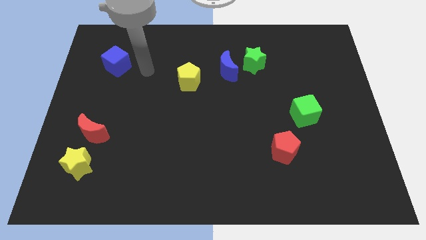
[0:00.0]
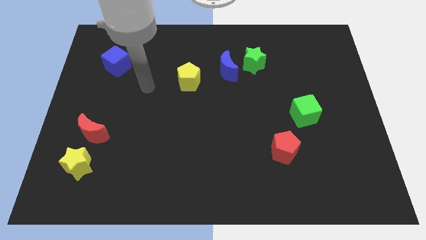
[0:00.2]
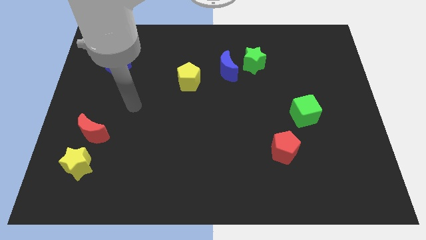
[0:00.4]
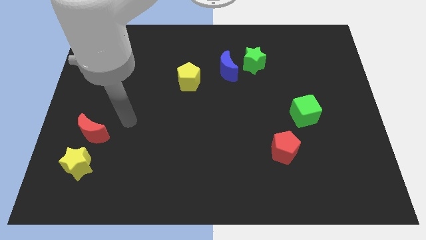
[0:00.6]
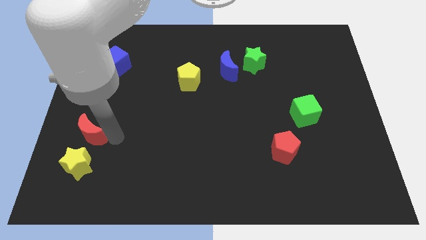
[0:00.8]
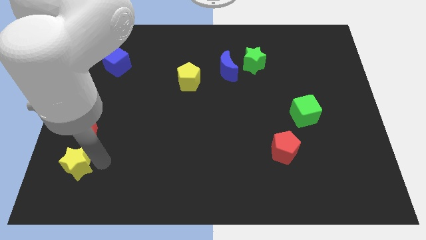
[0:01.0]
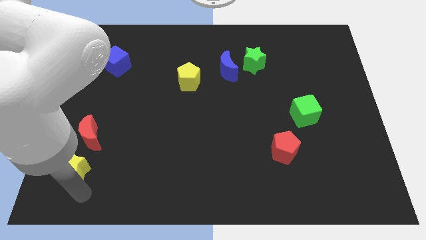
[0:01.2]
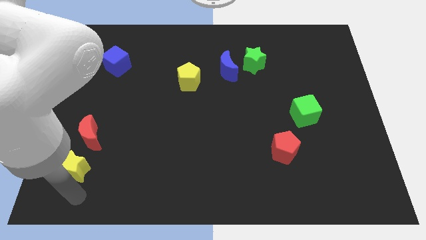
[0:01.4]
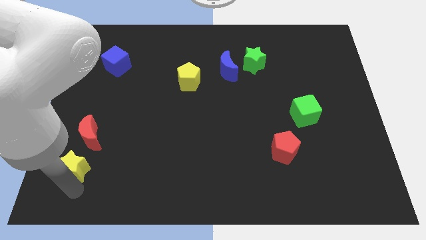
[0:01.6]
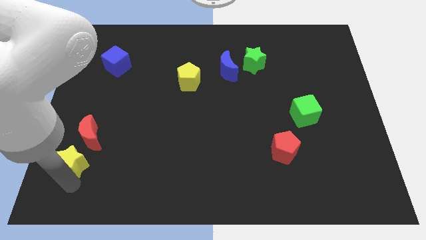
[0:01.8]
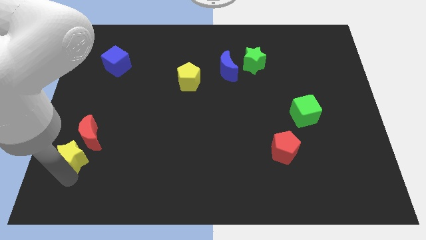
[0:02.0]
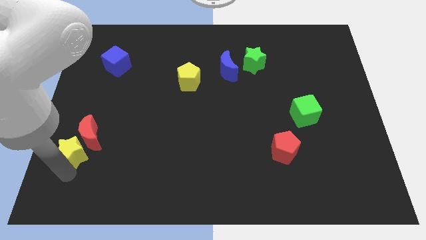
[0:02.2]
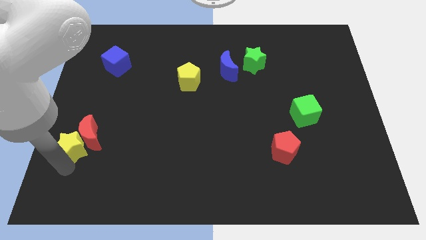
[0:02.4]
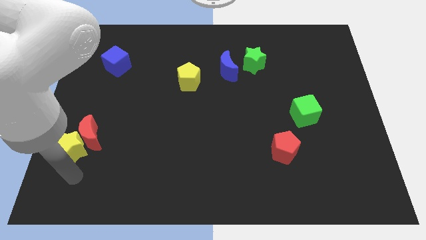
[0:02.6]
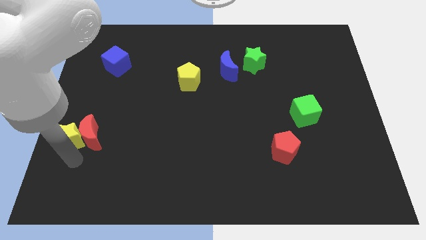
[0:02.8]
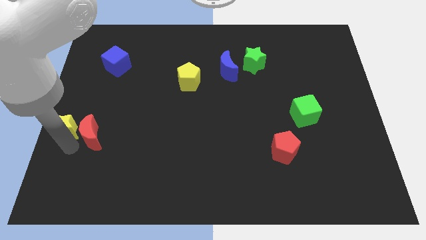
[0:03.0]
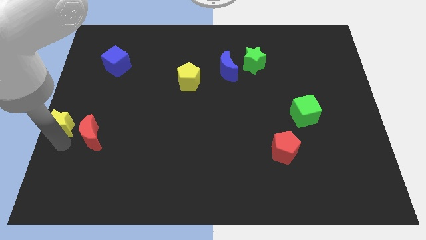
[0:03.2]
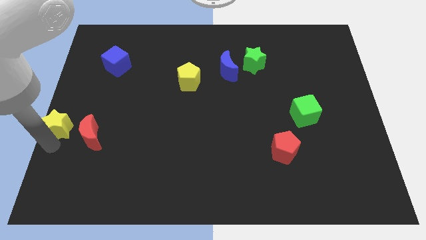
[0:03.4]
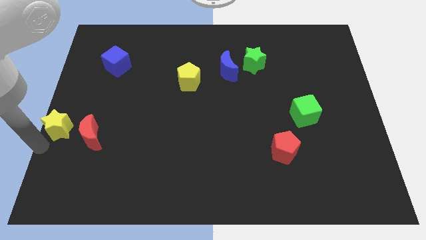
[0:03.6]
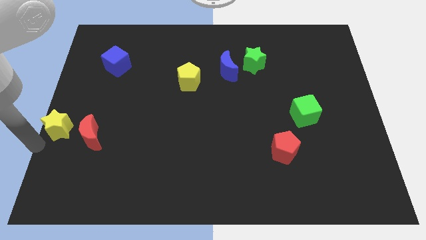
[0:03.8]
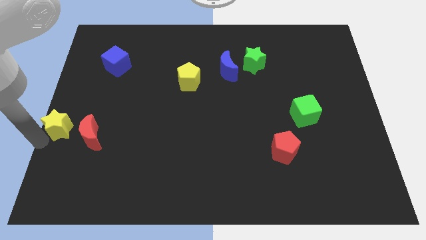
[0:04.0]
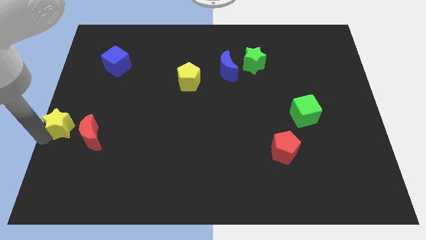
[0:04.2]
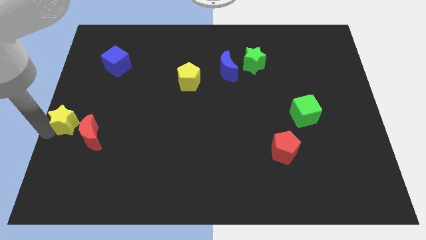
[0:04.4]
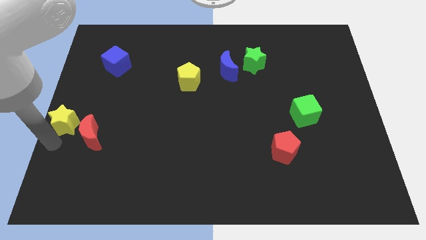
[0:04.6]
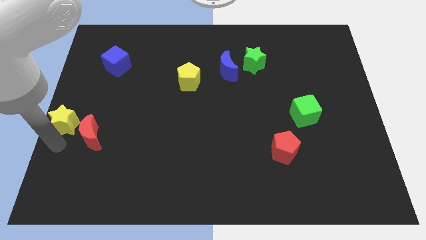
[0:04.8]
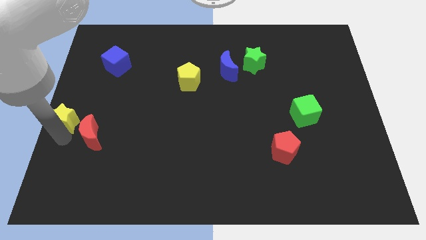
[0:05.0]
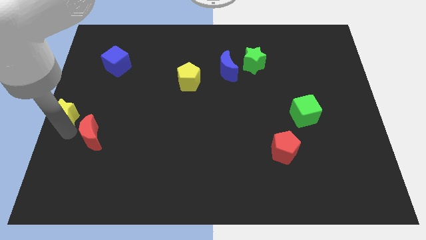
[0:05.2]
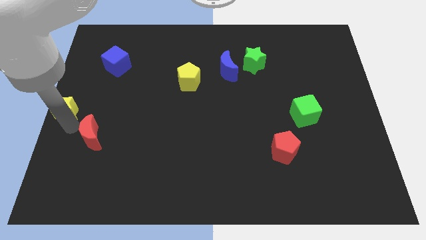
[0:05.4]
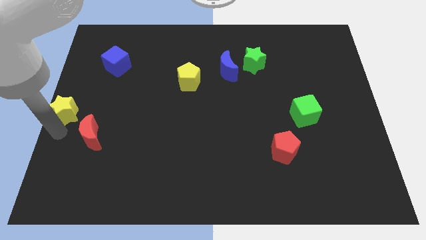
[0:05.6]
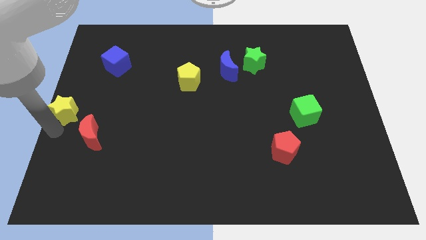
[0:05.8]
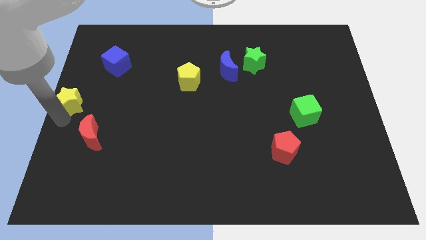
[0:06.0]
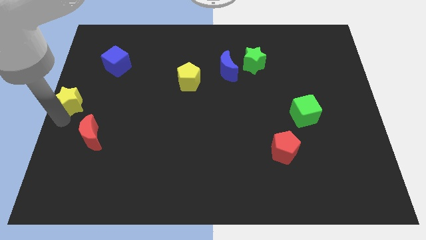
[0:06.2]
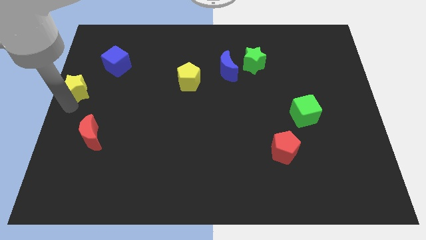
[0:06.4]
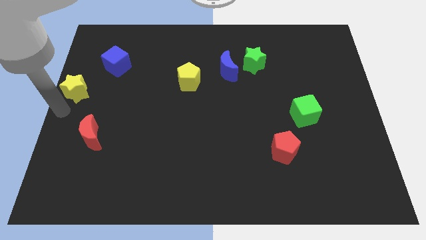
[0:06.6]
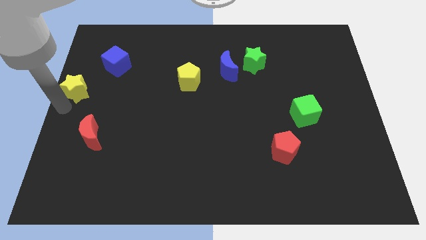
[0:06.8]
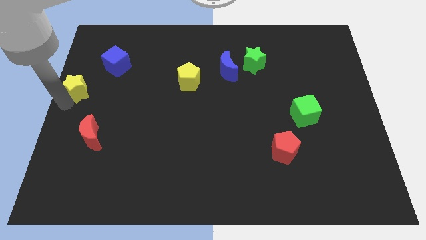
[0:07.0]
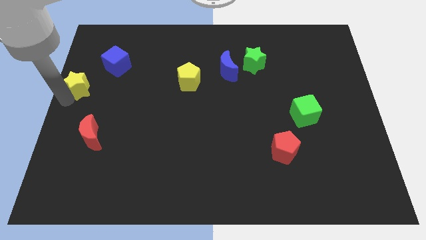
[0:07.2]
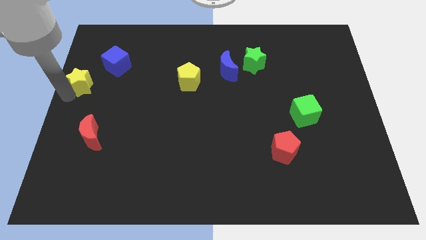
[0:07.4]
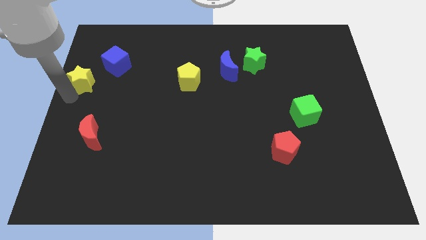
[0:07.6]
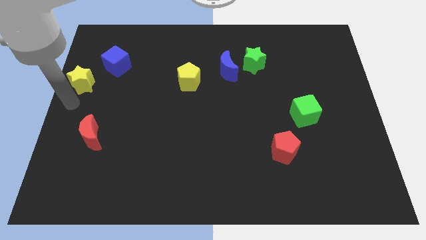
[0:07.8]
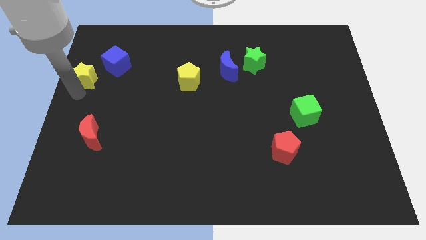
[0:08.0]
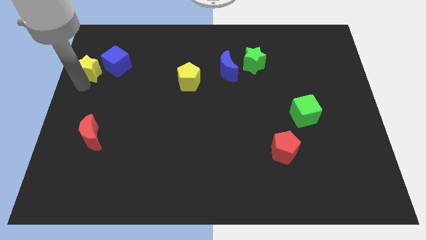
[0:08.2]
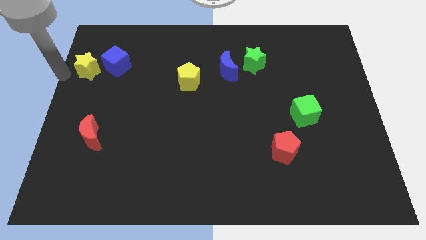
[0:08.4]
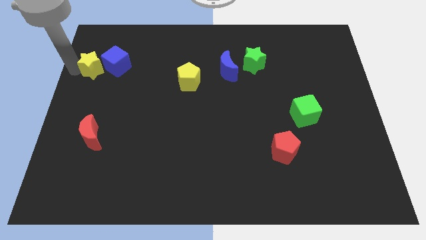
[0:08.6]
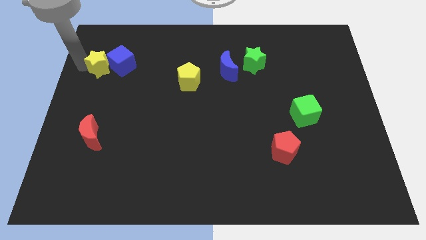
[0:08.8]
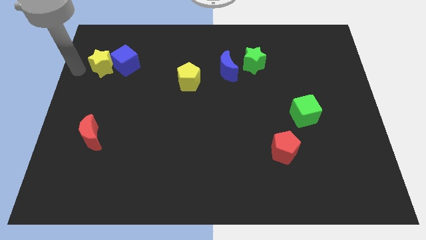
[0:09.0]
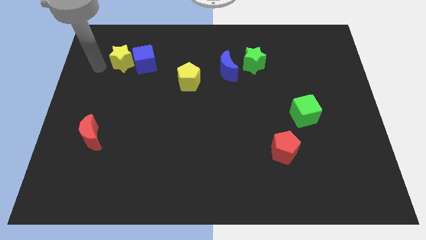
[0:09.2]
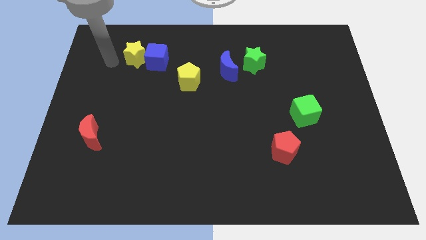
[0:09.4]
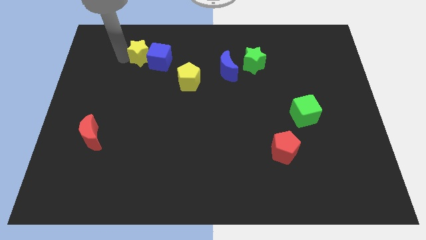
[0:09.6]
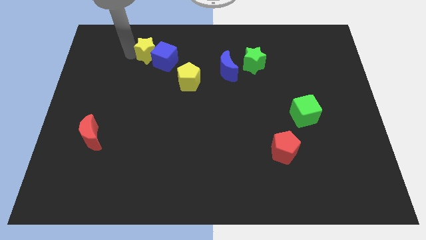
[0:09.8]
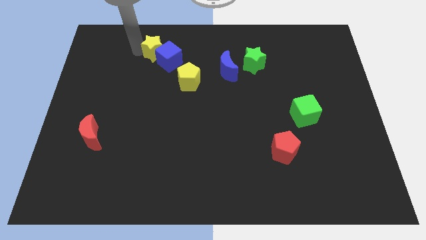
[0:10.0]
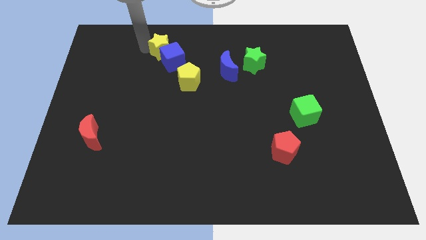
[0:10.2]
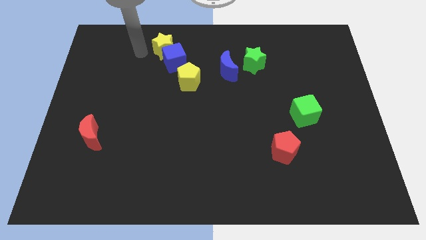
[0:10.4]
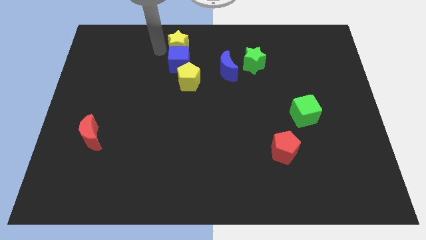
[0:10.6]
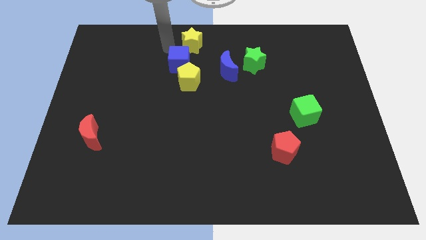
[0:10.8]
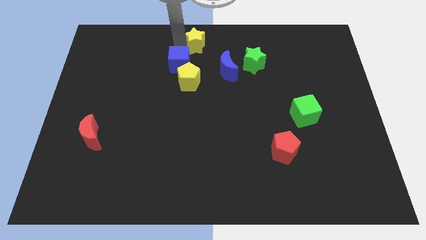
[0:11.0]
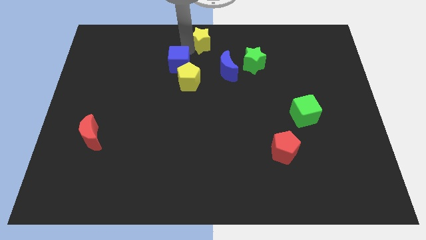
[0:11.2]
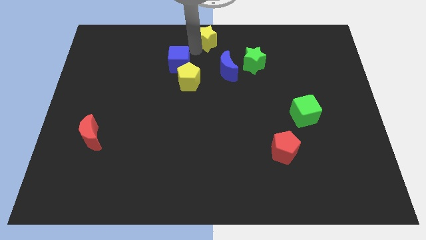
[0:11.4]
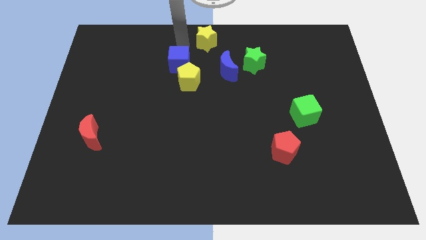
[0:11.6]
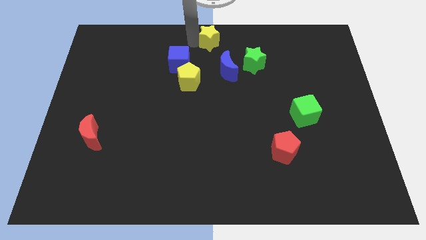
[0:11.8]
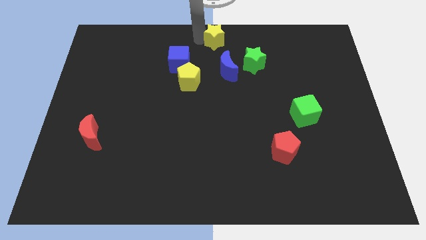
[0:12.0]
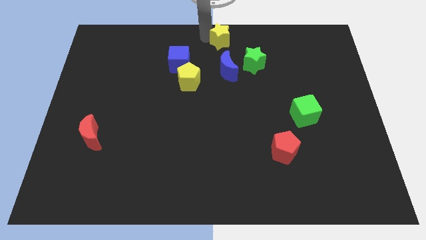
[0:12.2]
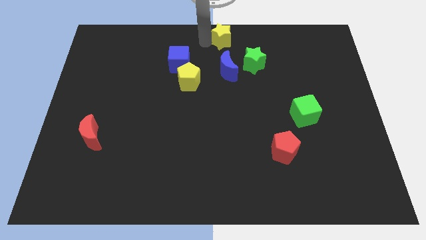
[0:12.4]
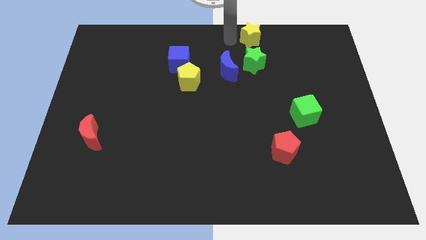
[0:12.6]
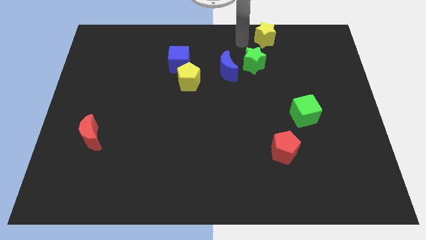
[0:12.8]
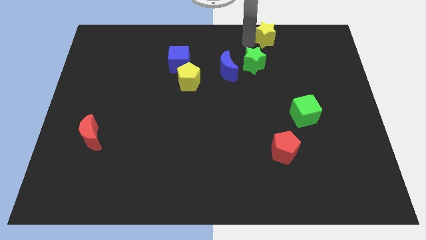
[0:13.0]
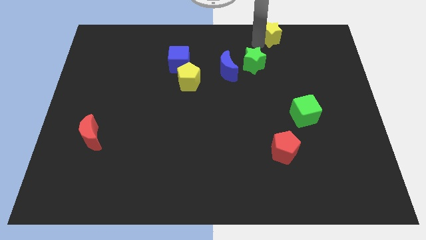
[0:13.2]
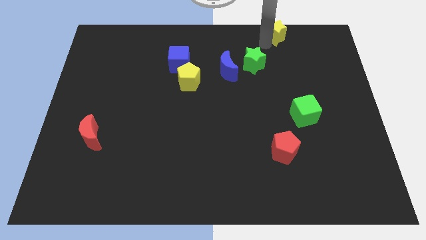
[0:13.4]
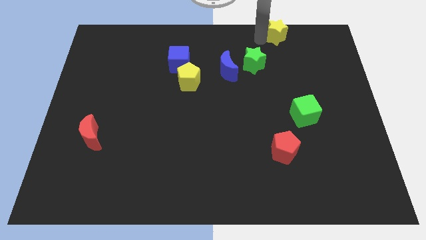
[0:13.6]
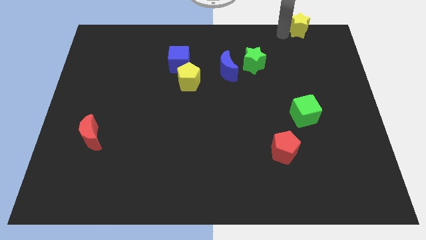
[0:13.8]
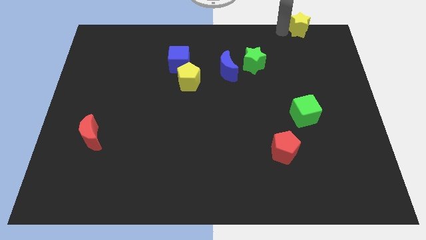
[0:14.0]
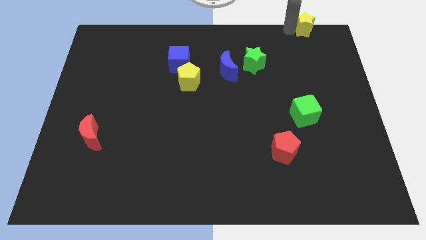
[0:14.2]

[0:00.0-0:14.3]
put the yellow star to the top right of the board
